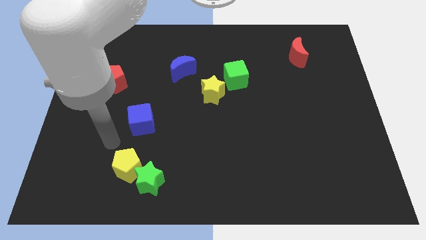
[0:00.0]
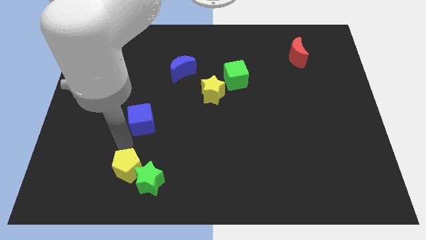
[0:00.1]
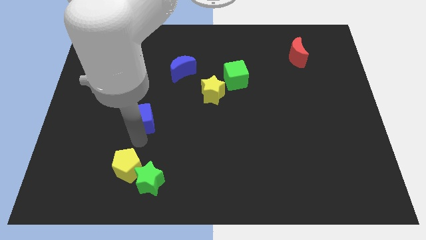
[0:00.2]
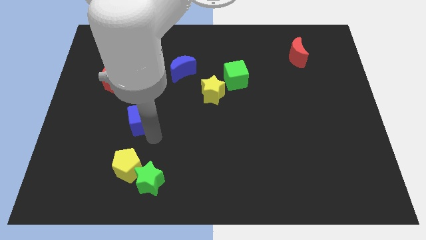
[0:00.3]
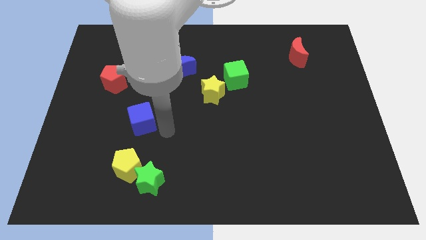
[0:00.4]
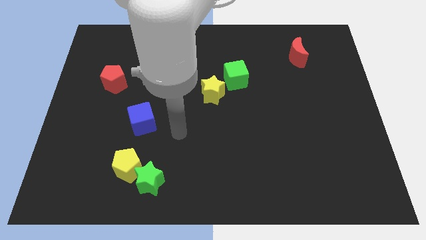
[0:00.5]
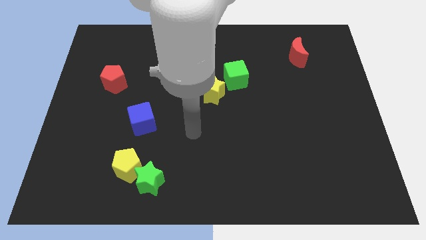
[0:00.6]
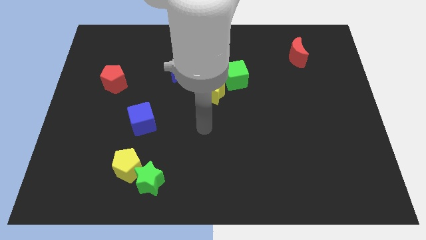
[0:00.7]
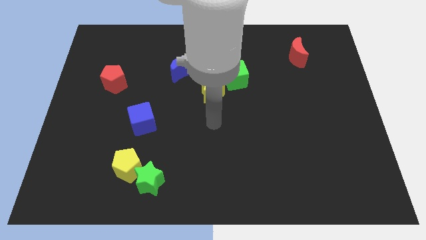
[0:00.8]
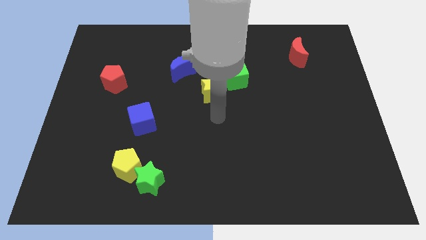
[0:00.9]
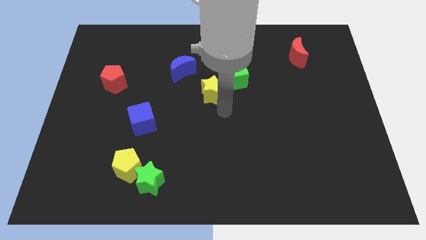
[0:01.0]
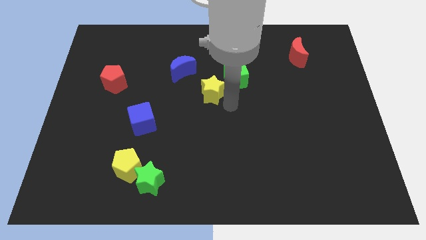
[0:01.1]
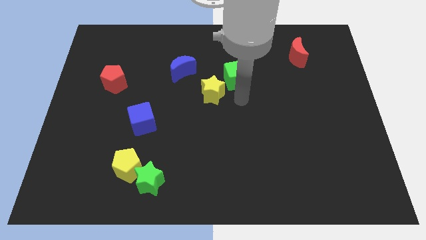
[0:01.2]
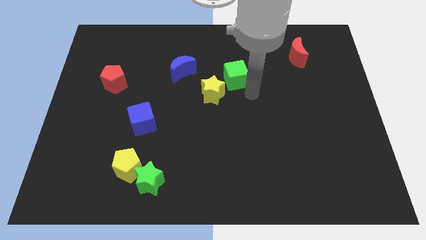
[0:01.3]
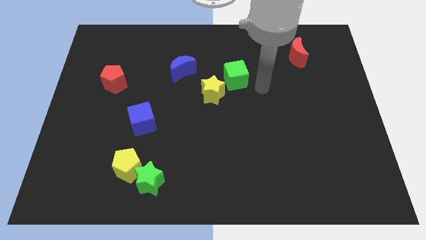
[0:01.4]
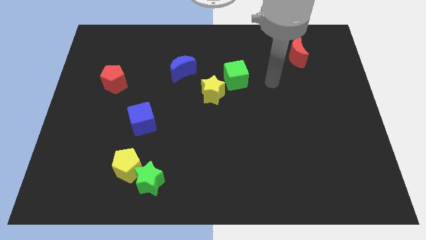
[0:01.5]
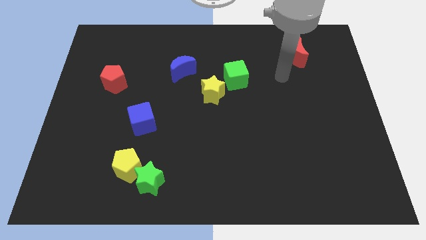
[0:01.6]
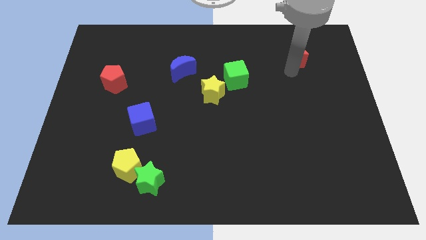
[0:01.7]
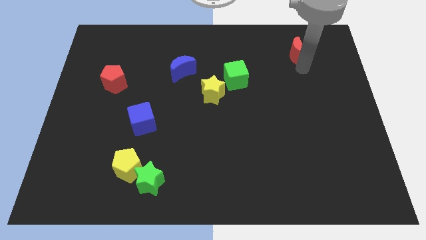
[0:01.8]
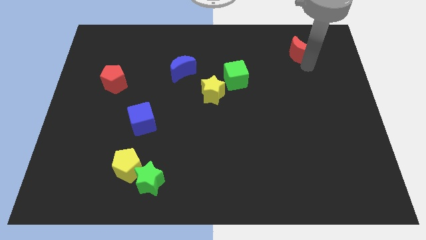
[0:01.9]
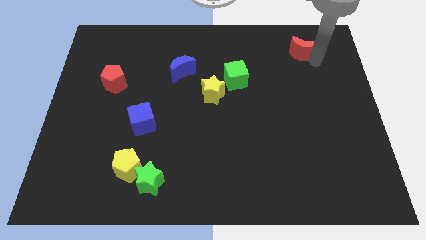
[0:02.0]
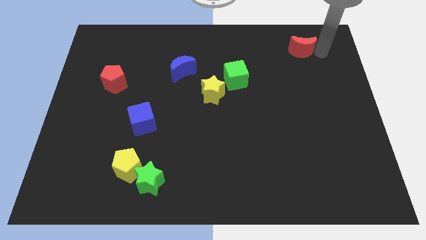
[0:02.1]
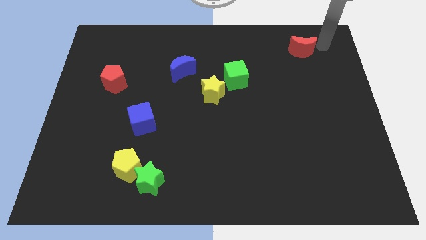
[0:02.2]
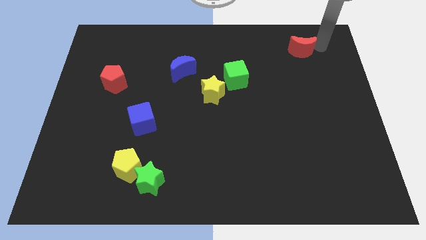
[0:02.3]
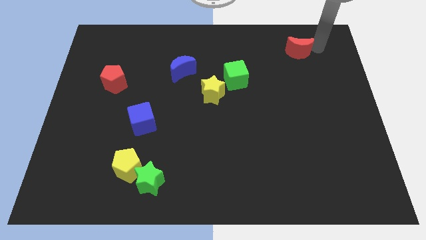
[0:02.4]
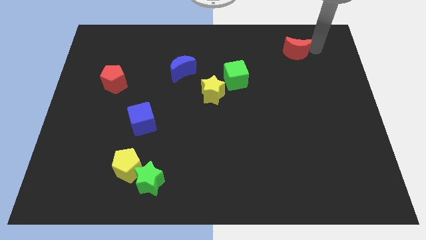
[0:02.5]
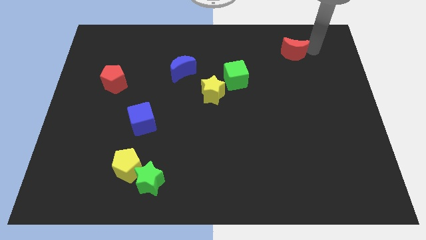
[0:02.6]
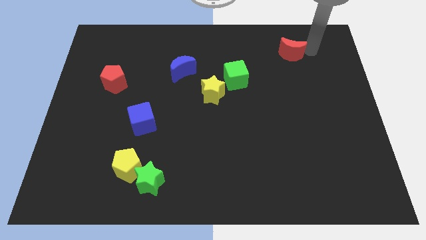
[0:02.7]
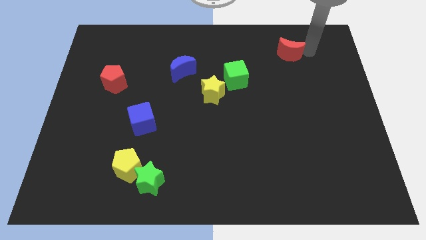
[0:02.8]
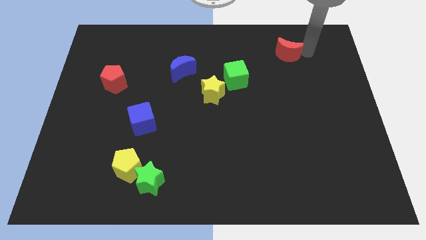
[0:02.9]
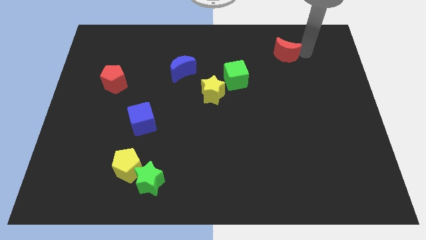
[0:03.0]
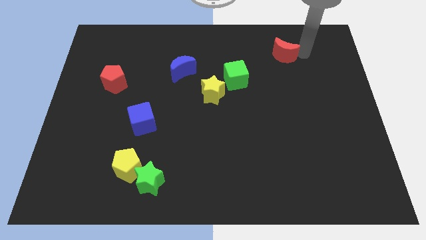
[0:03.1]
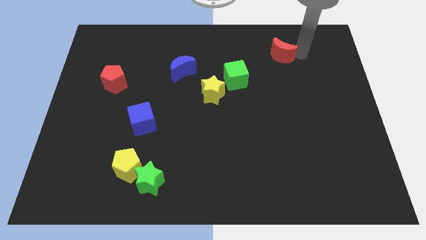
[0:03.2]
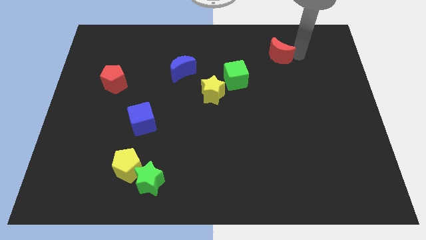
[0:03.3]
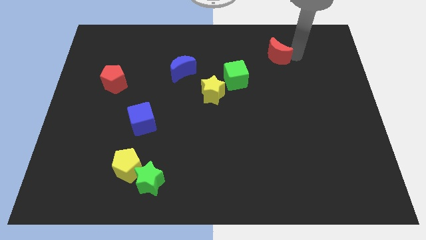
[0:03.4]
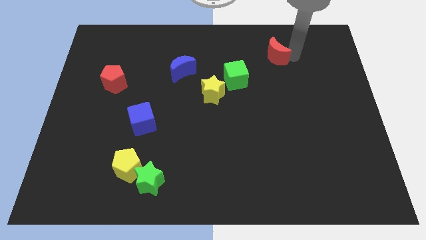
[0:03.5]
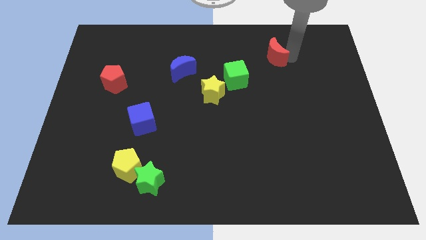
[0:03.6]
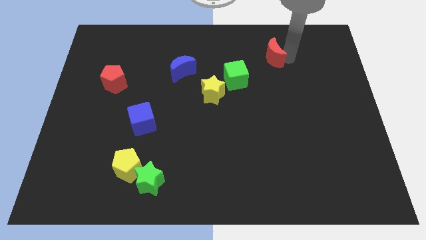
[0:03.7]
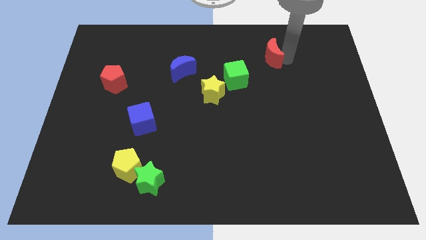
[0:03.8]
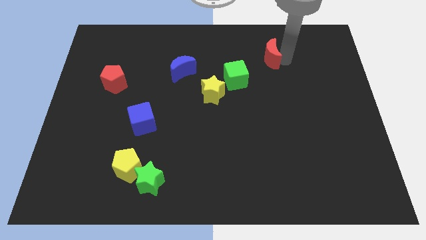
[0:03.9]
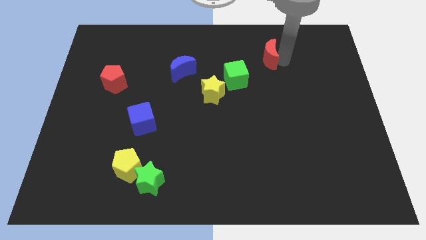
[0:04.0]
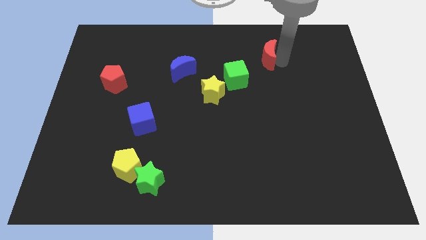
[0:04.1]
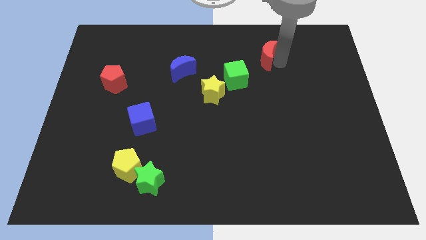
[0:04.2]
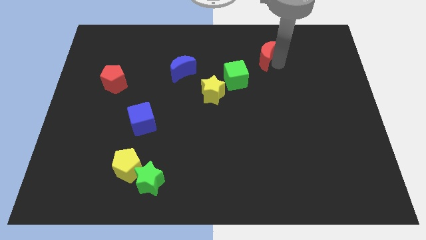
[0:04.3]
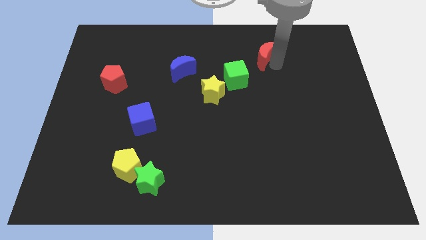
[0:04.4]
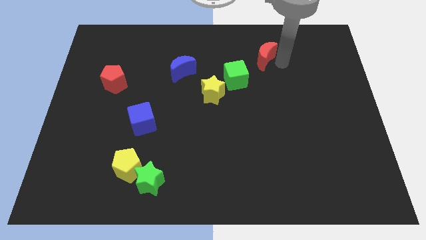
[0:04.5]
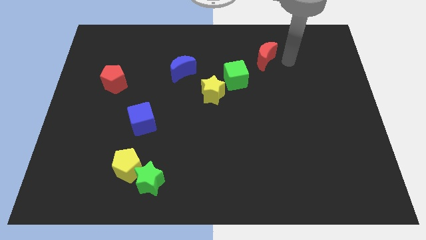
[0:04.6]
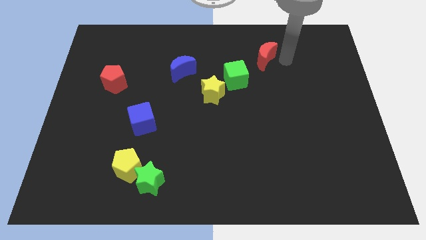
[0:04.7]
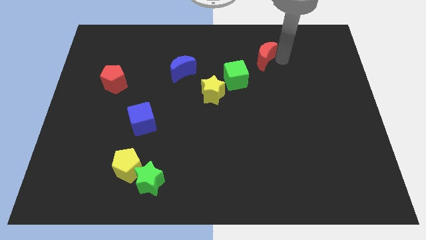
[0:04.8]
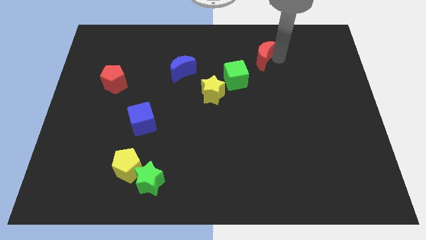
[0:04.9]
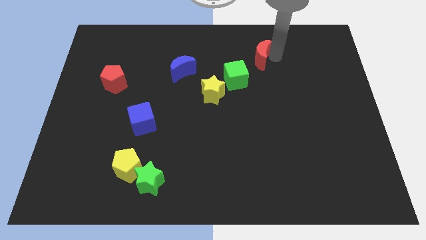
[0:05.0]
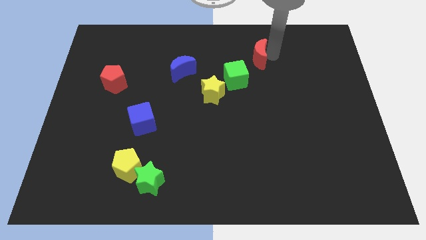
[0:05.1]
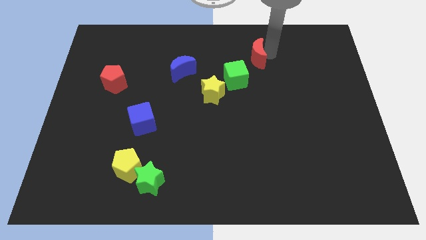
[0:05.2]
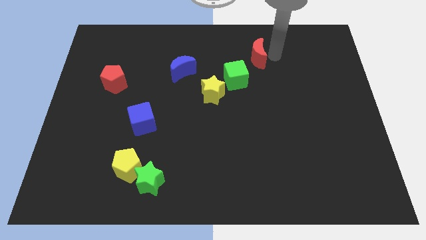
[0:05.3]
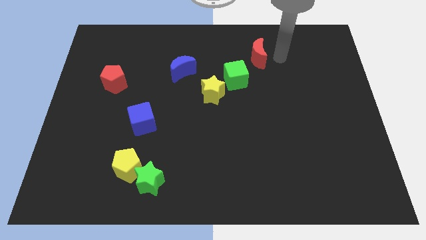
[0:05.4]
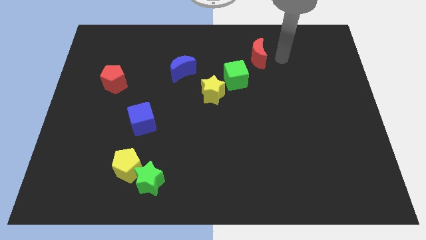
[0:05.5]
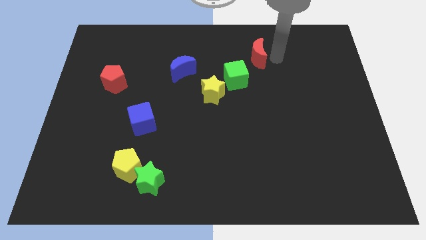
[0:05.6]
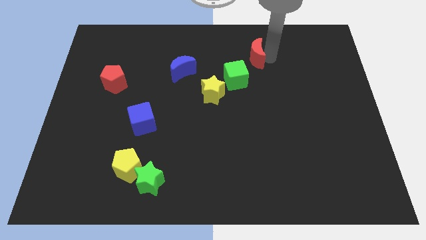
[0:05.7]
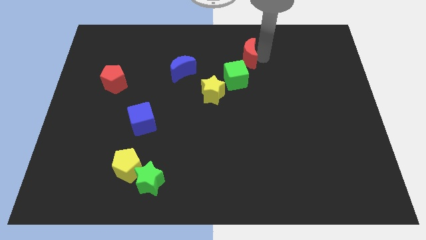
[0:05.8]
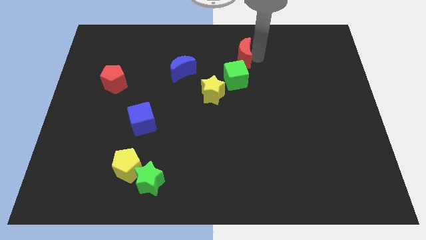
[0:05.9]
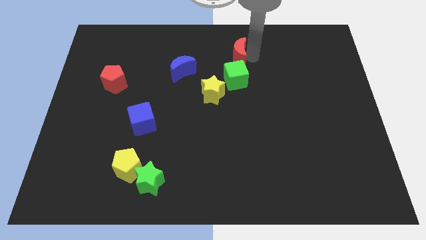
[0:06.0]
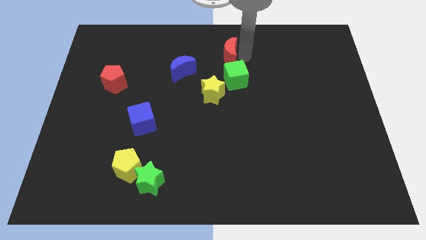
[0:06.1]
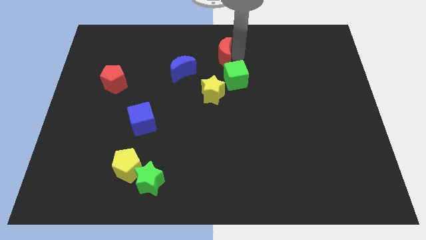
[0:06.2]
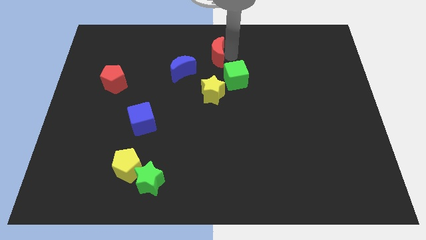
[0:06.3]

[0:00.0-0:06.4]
push the red moon to the top right side of the blue moon

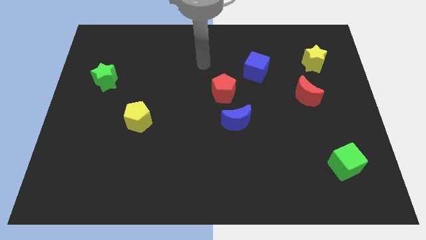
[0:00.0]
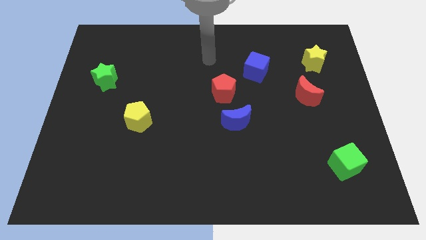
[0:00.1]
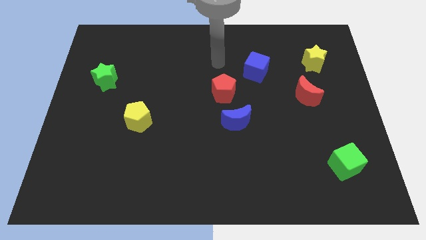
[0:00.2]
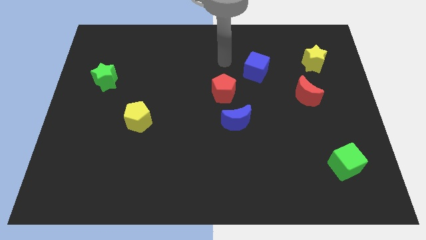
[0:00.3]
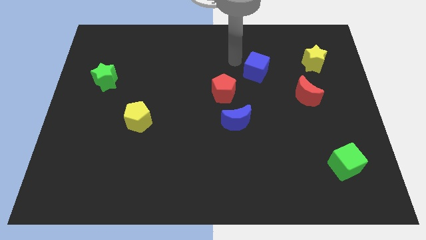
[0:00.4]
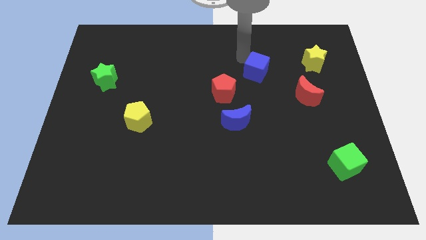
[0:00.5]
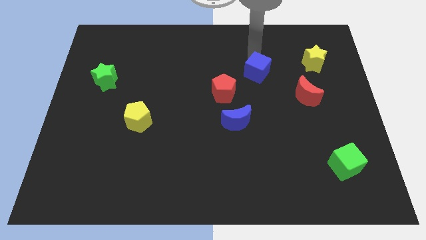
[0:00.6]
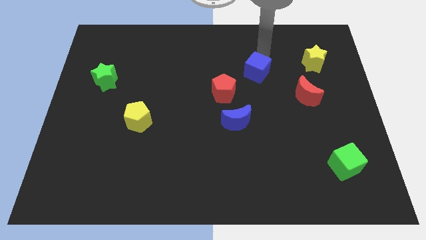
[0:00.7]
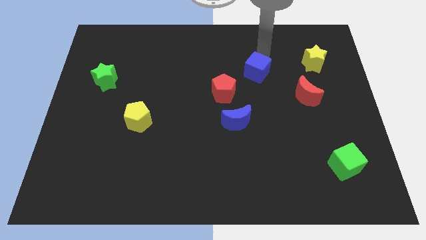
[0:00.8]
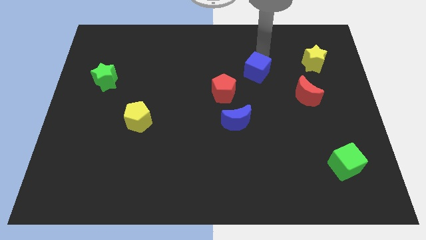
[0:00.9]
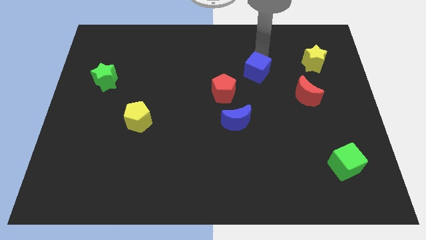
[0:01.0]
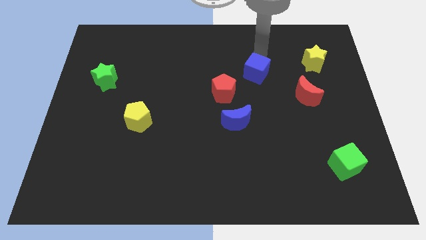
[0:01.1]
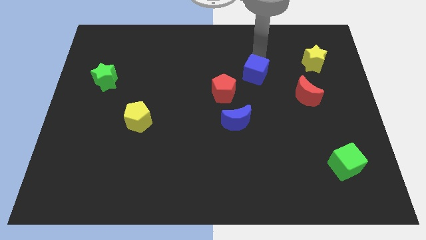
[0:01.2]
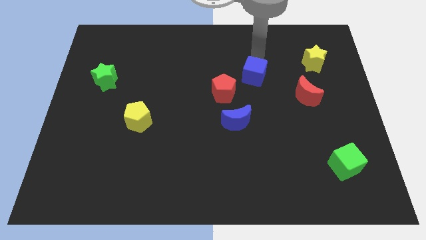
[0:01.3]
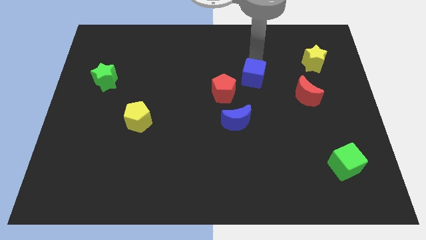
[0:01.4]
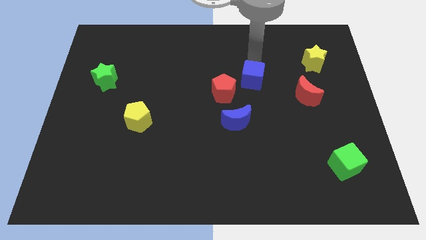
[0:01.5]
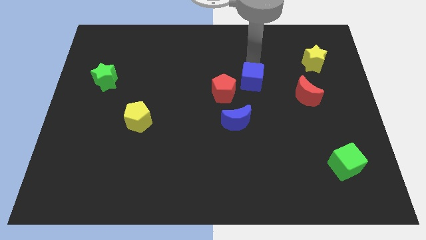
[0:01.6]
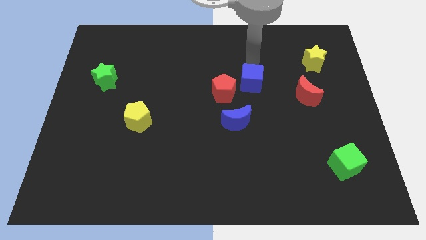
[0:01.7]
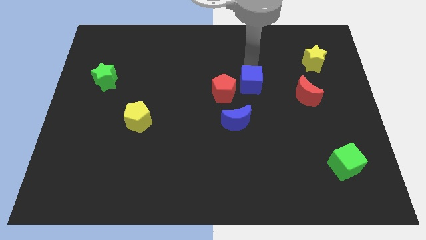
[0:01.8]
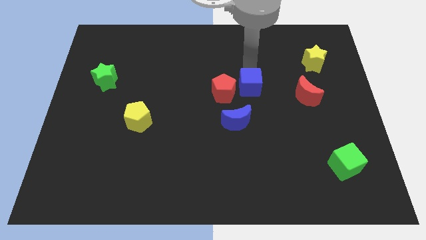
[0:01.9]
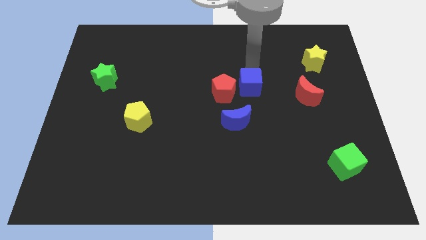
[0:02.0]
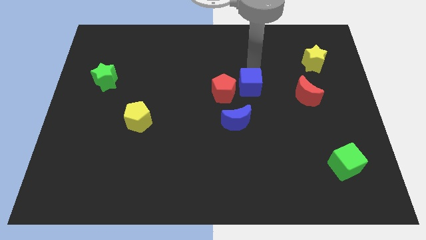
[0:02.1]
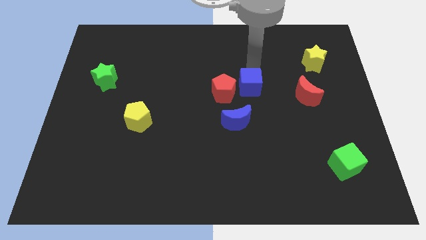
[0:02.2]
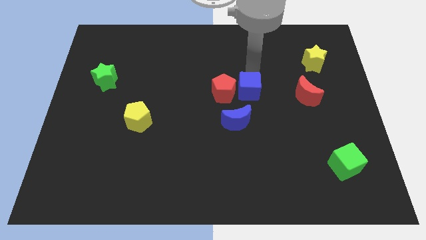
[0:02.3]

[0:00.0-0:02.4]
push the blue cube diagonally down and to the right of the red pentagon
